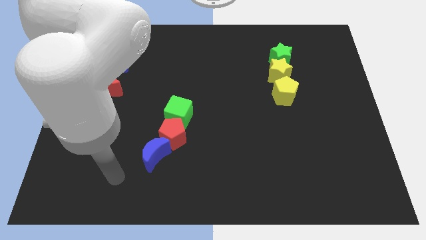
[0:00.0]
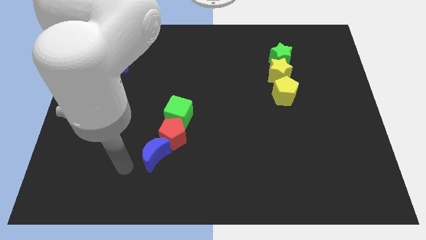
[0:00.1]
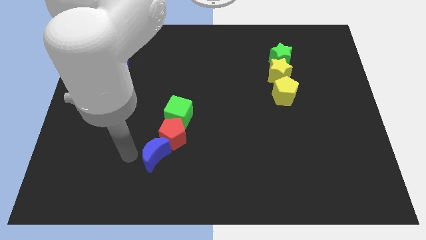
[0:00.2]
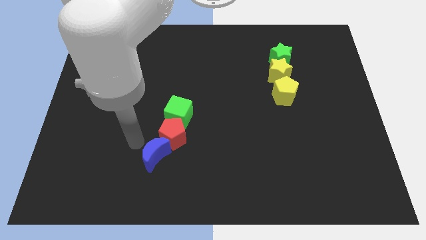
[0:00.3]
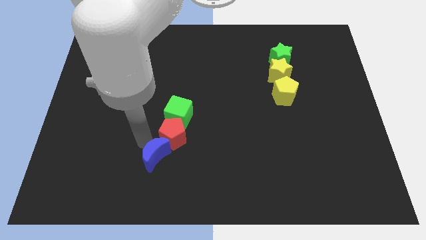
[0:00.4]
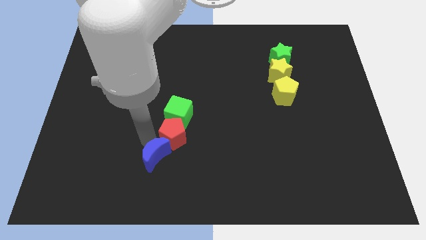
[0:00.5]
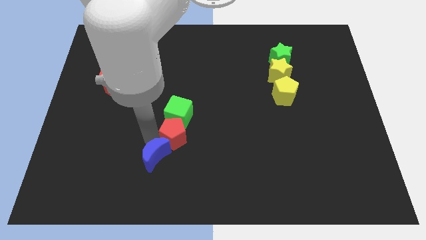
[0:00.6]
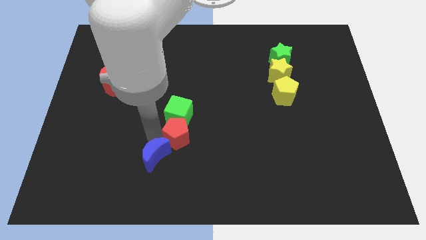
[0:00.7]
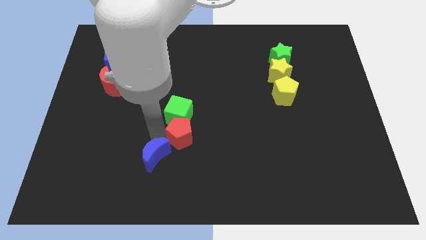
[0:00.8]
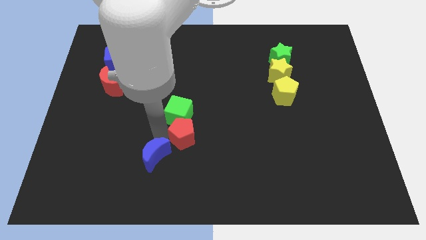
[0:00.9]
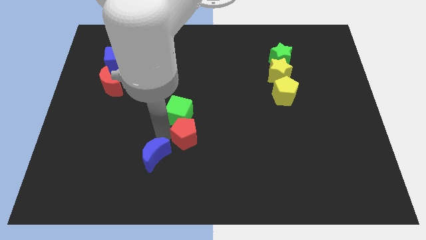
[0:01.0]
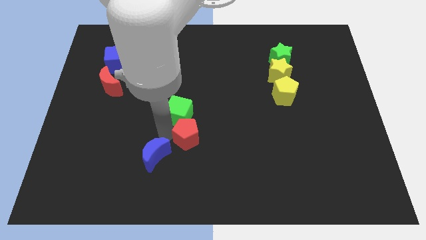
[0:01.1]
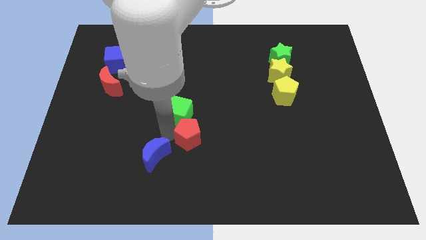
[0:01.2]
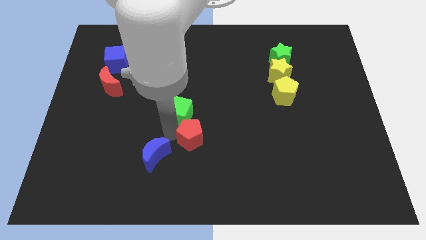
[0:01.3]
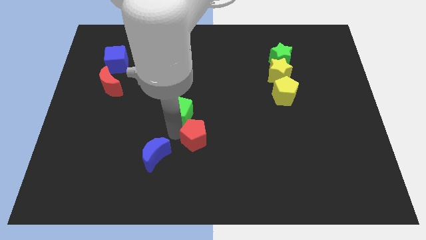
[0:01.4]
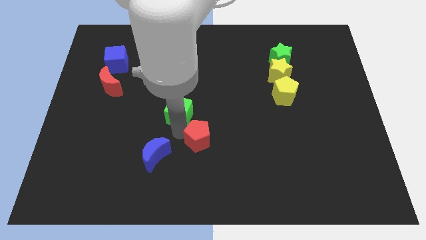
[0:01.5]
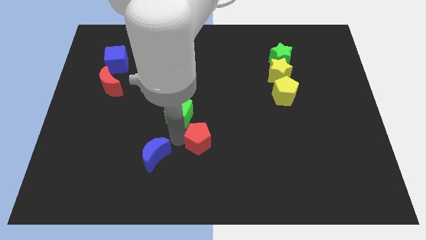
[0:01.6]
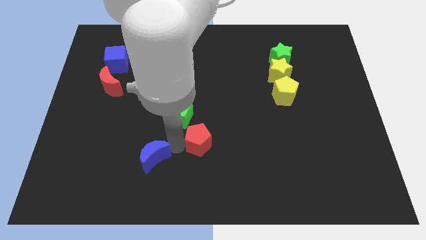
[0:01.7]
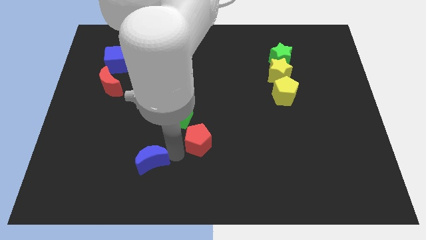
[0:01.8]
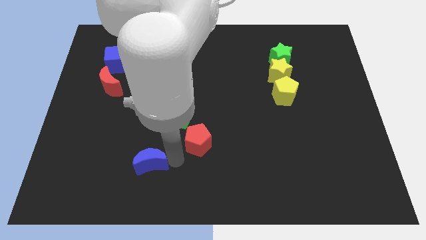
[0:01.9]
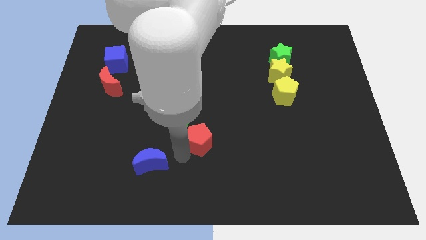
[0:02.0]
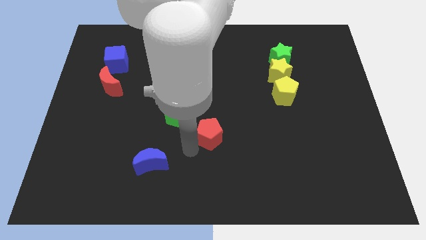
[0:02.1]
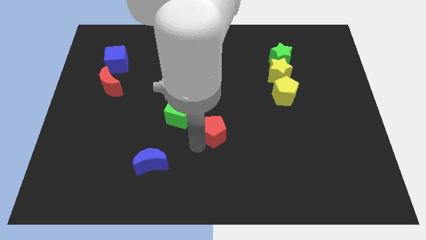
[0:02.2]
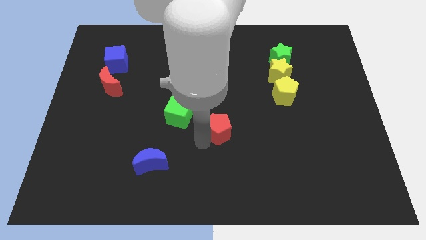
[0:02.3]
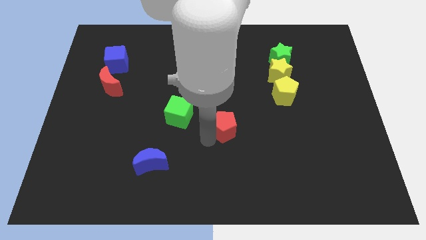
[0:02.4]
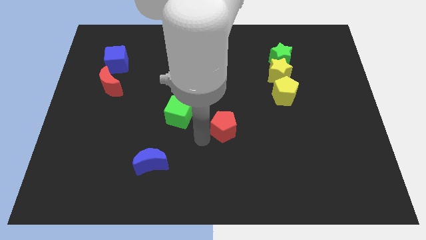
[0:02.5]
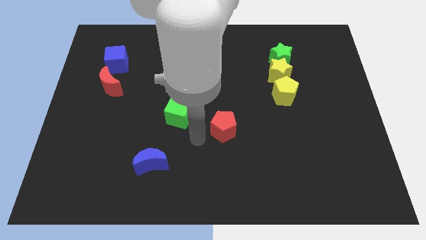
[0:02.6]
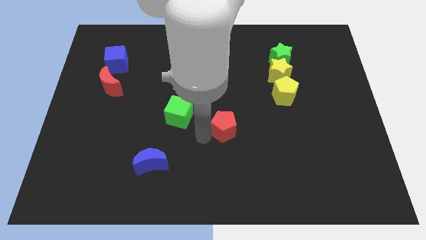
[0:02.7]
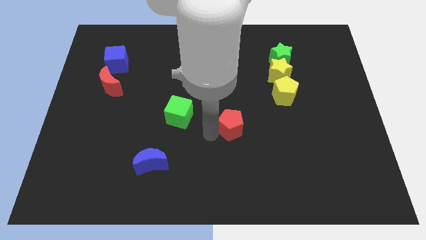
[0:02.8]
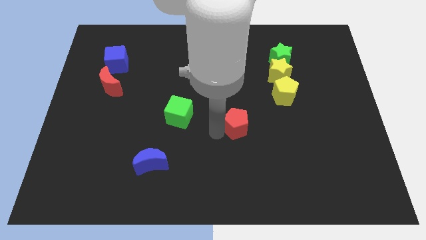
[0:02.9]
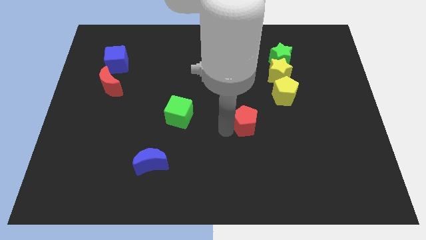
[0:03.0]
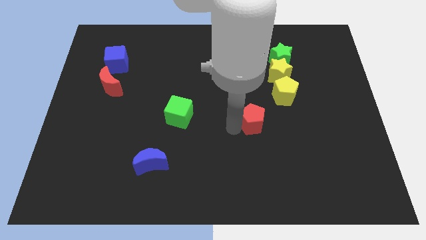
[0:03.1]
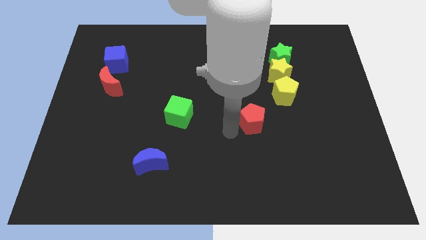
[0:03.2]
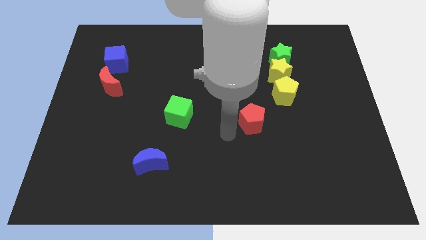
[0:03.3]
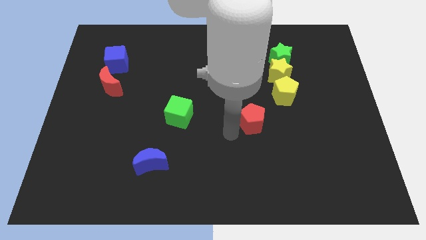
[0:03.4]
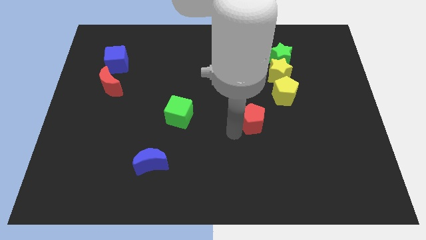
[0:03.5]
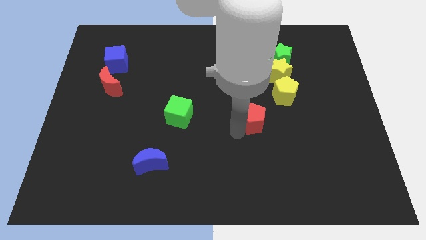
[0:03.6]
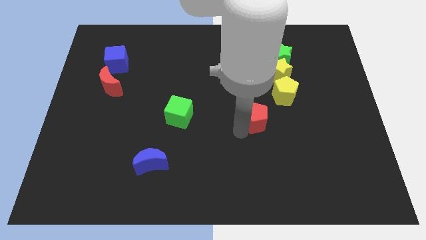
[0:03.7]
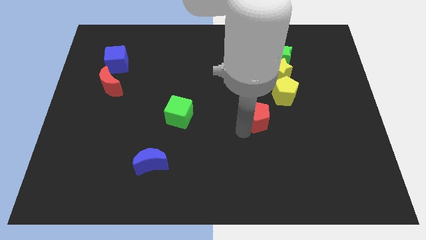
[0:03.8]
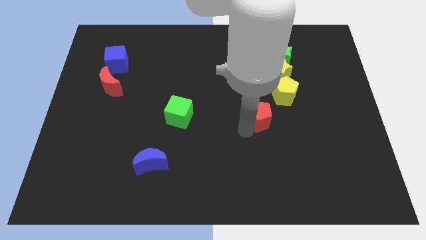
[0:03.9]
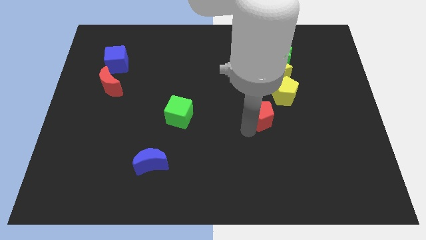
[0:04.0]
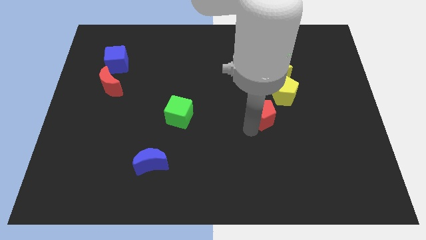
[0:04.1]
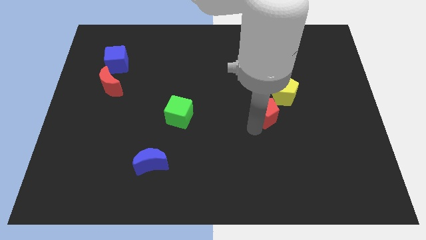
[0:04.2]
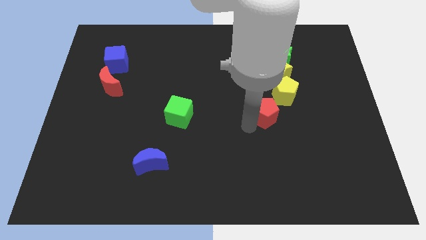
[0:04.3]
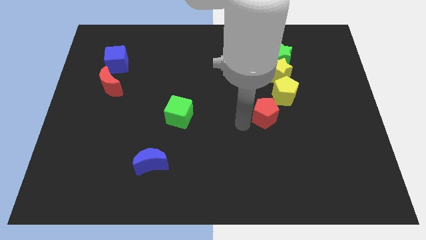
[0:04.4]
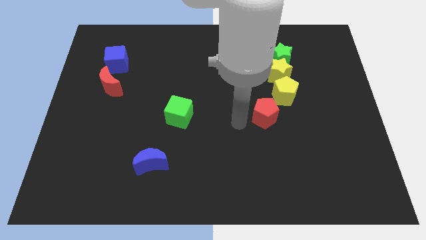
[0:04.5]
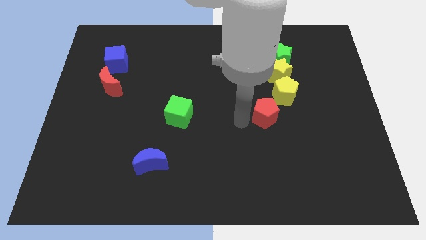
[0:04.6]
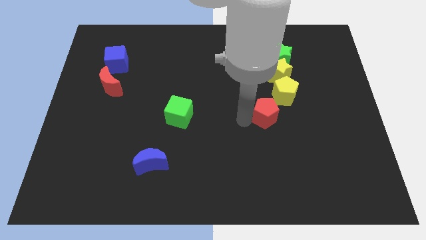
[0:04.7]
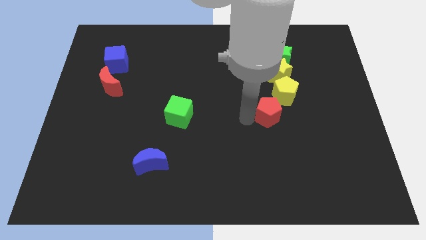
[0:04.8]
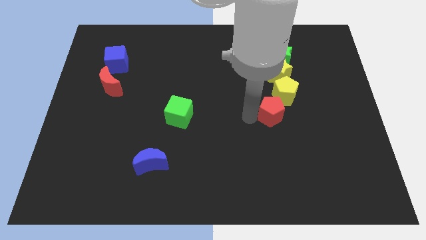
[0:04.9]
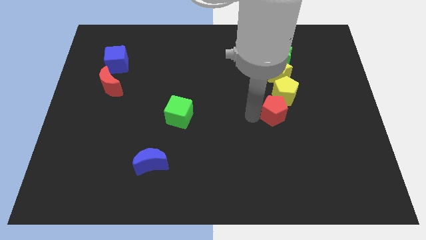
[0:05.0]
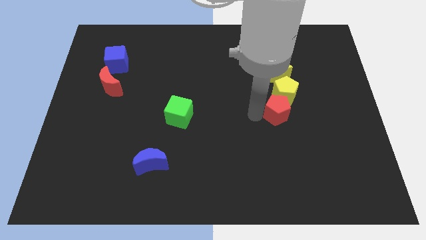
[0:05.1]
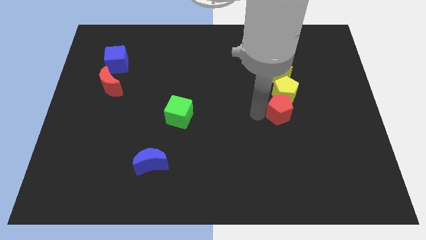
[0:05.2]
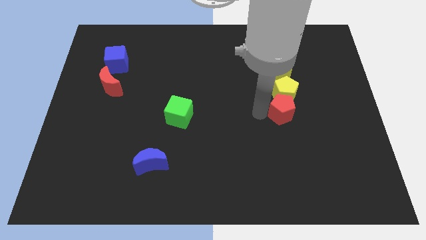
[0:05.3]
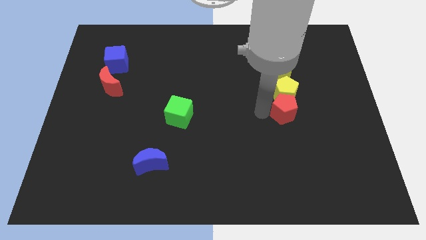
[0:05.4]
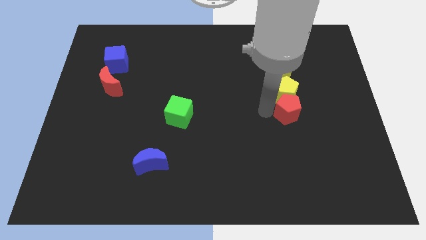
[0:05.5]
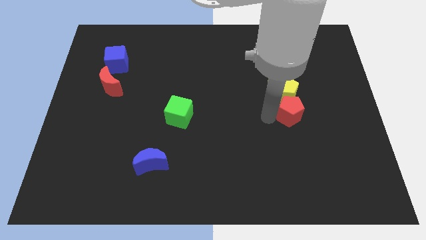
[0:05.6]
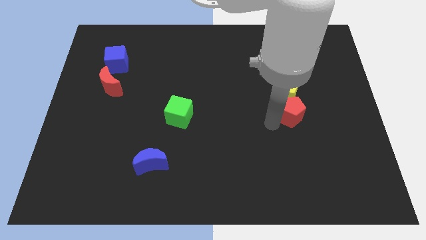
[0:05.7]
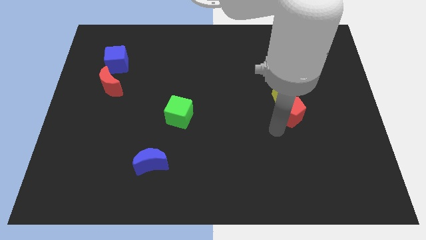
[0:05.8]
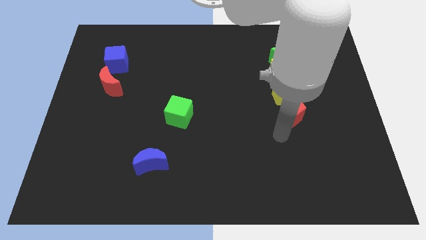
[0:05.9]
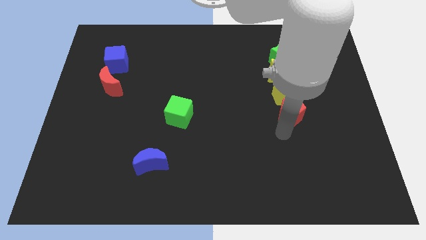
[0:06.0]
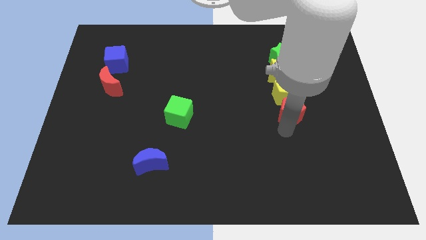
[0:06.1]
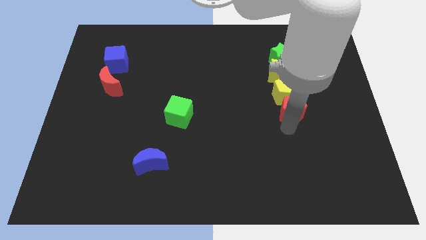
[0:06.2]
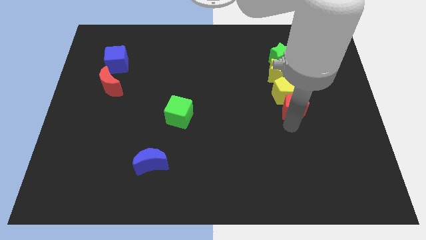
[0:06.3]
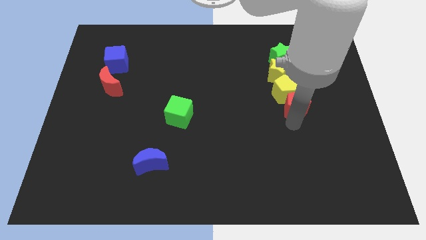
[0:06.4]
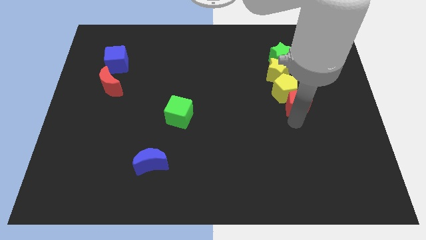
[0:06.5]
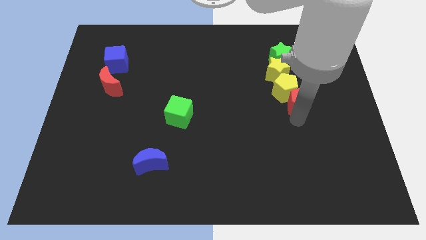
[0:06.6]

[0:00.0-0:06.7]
push the red pentagon to the bottom right side of the yellow star

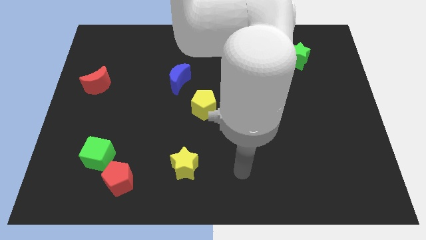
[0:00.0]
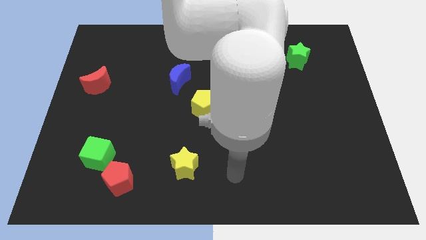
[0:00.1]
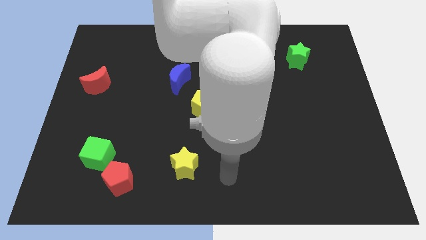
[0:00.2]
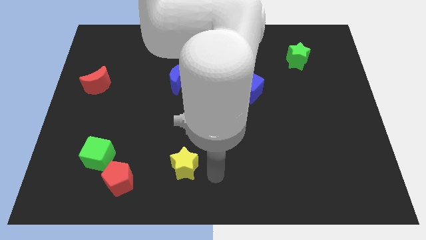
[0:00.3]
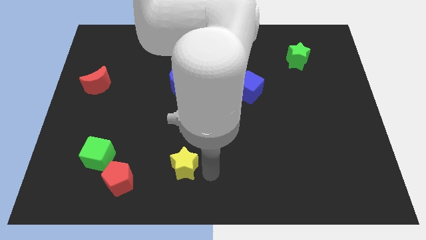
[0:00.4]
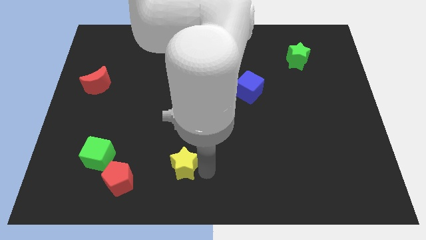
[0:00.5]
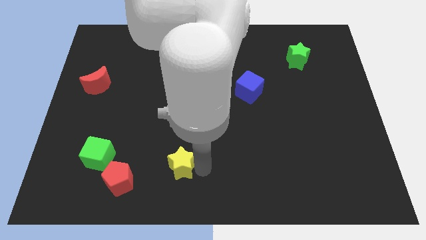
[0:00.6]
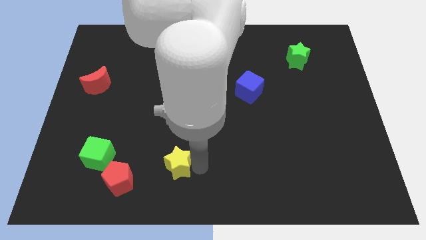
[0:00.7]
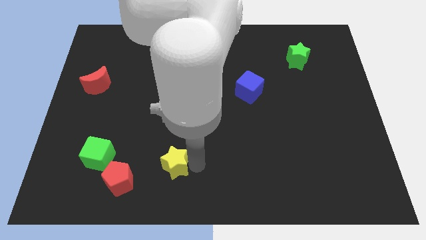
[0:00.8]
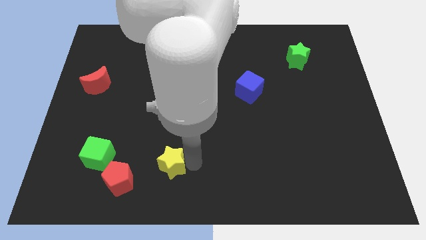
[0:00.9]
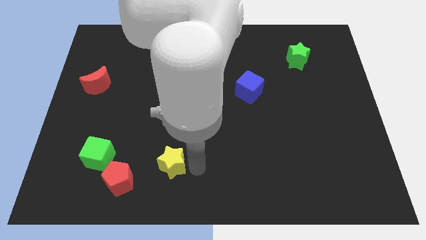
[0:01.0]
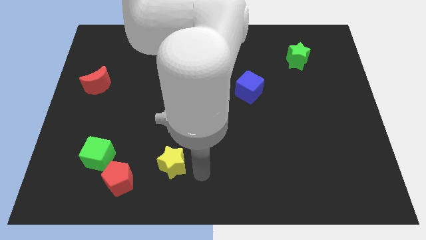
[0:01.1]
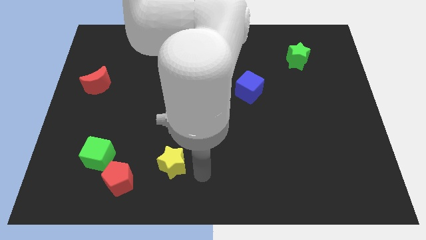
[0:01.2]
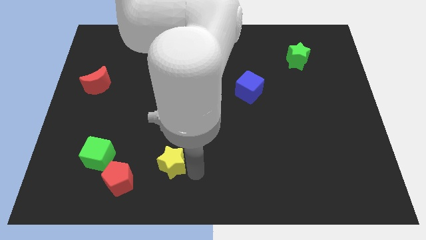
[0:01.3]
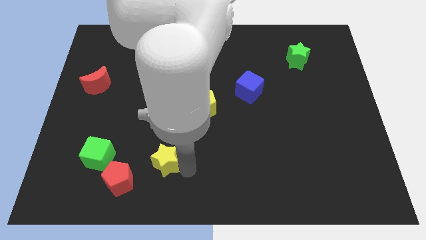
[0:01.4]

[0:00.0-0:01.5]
put the yellow star diagonally up and to the right of the red pentagon
